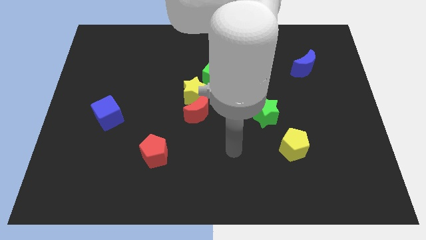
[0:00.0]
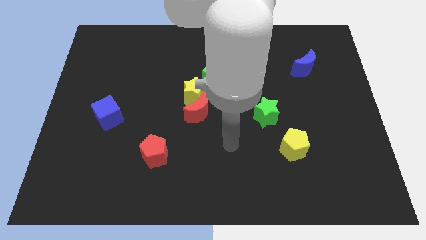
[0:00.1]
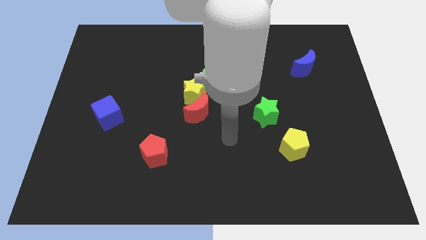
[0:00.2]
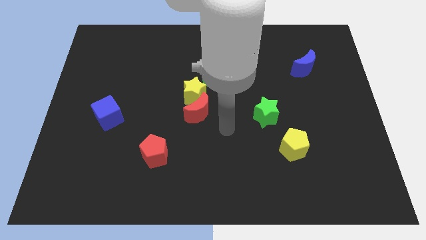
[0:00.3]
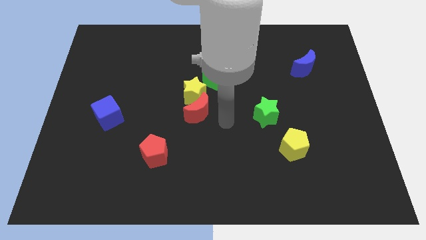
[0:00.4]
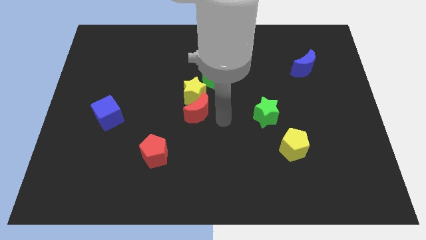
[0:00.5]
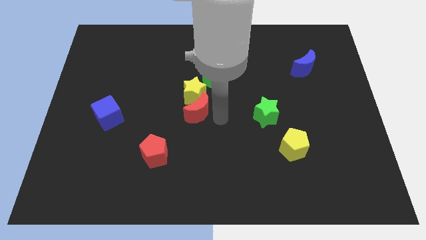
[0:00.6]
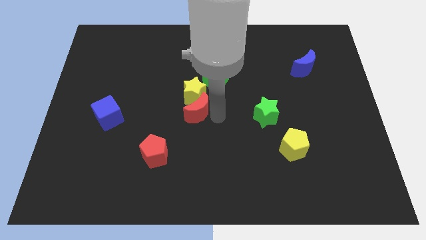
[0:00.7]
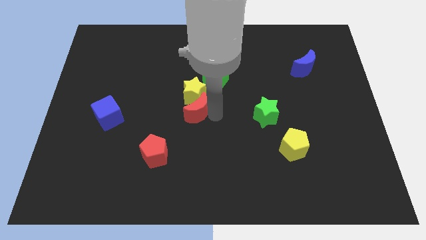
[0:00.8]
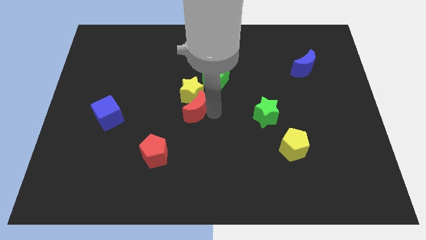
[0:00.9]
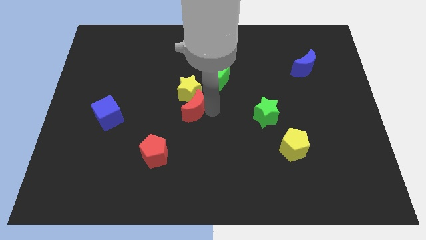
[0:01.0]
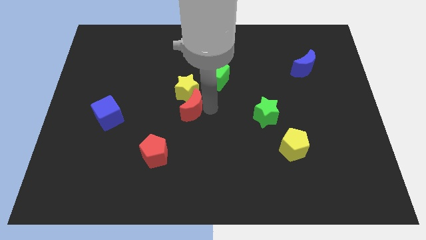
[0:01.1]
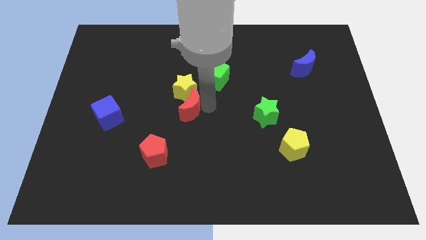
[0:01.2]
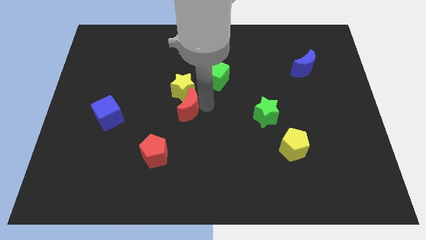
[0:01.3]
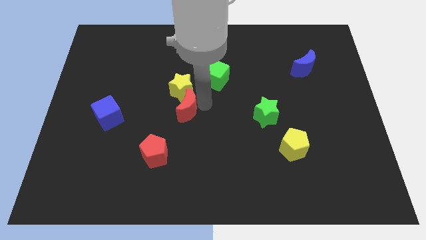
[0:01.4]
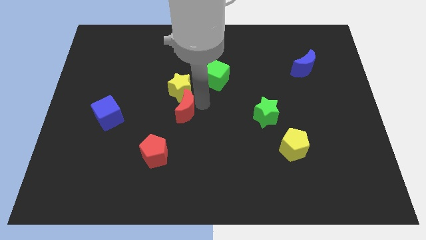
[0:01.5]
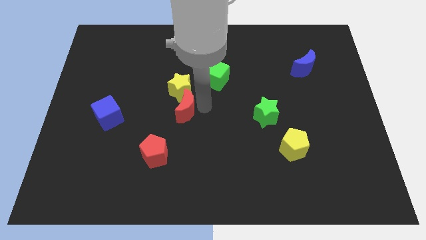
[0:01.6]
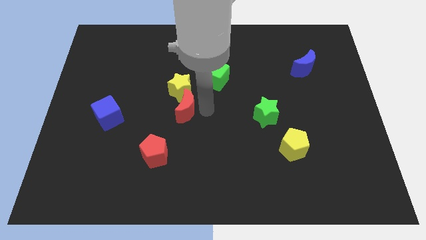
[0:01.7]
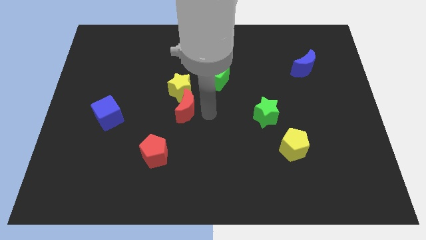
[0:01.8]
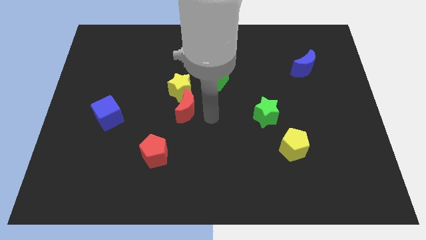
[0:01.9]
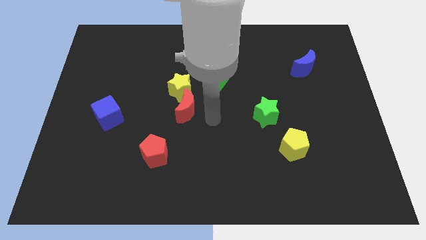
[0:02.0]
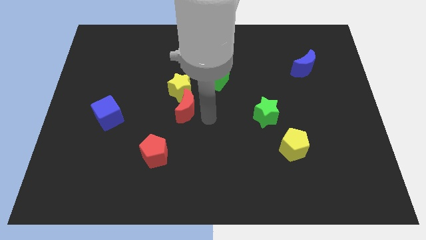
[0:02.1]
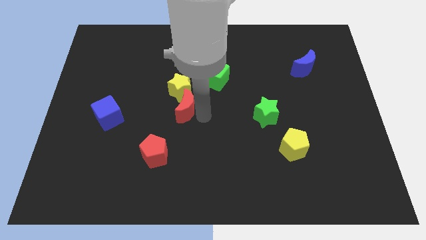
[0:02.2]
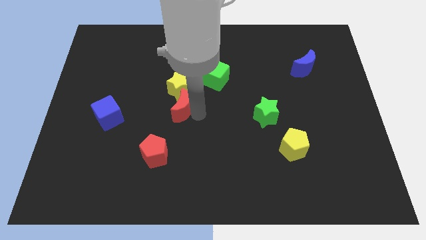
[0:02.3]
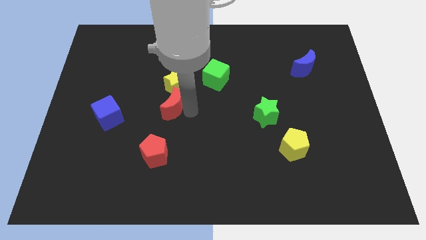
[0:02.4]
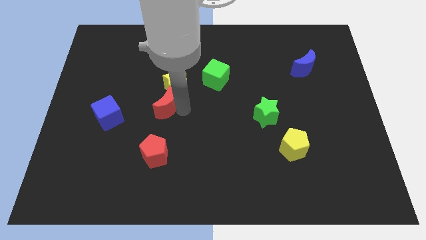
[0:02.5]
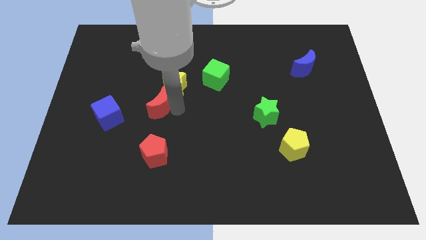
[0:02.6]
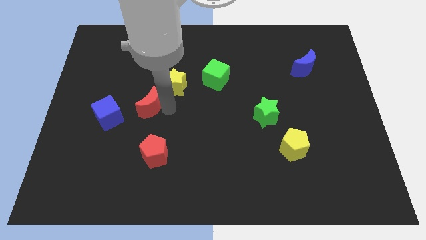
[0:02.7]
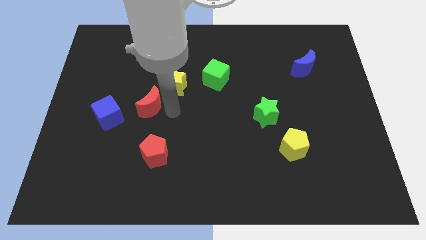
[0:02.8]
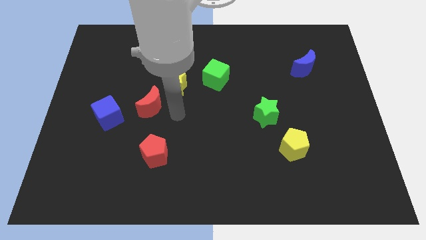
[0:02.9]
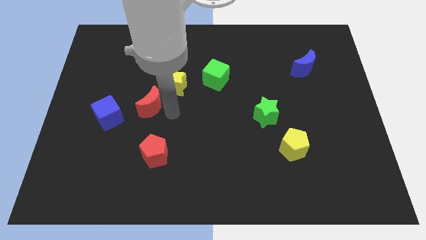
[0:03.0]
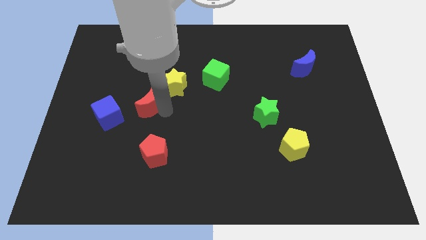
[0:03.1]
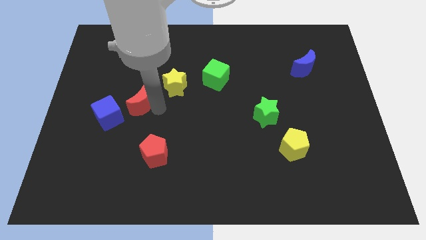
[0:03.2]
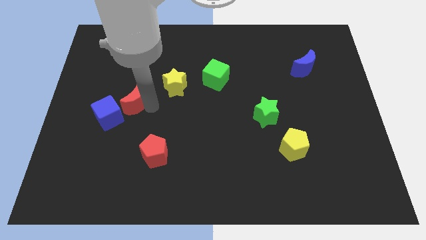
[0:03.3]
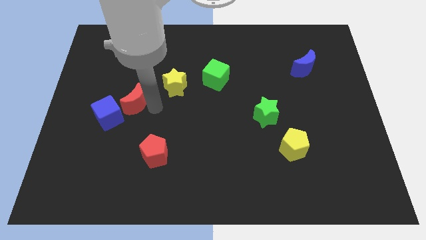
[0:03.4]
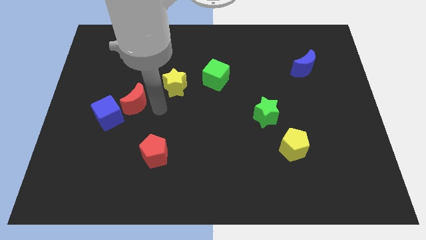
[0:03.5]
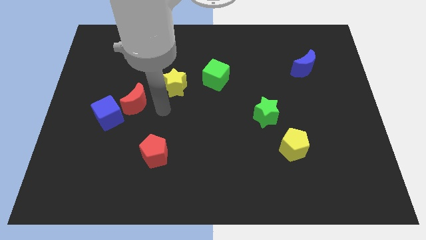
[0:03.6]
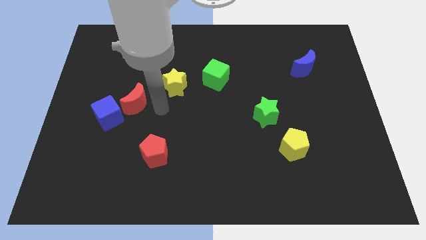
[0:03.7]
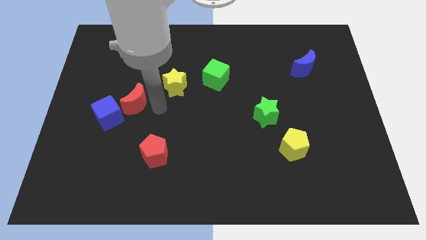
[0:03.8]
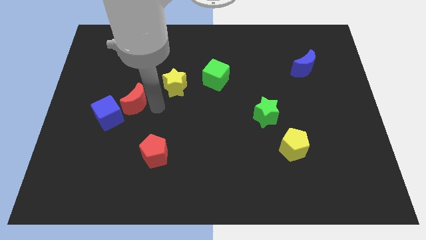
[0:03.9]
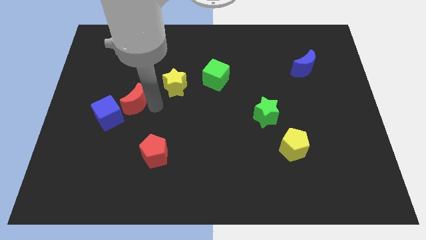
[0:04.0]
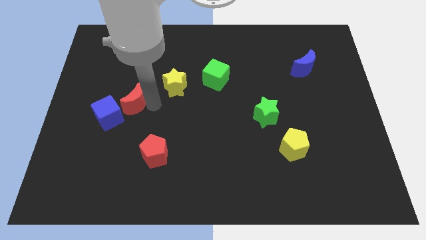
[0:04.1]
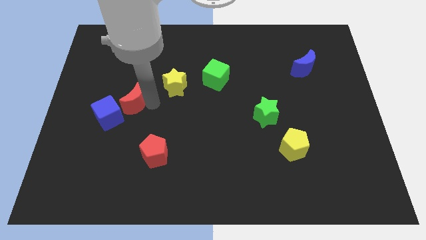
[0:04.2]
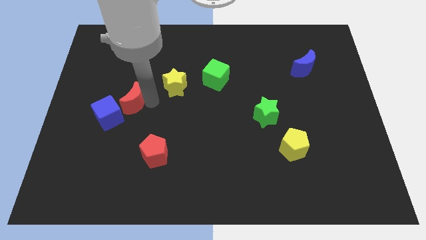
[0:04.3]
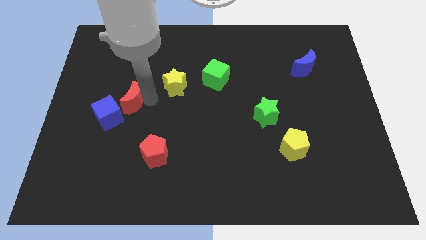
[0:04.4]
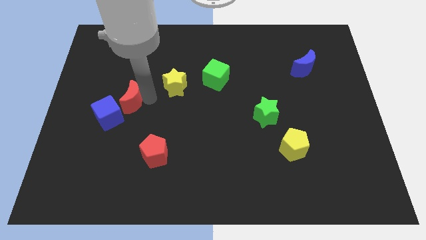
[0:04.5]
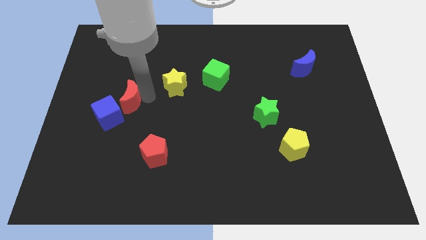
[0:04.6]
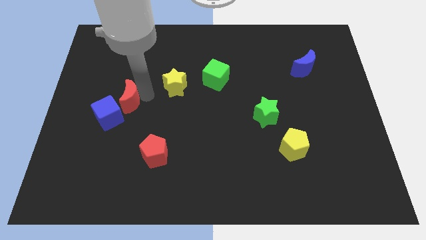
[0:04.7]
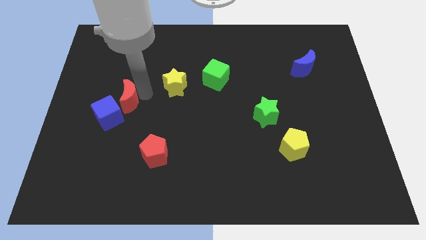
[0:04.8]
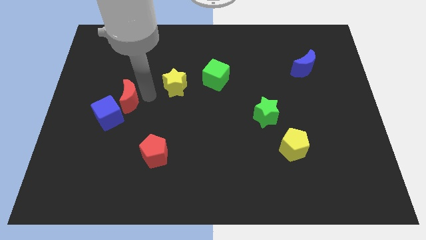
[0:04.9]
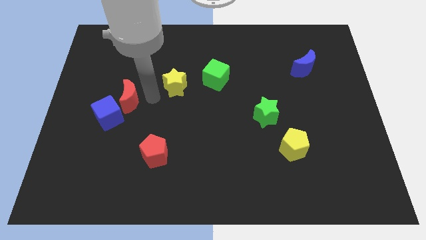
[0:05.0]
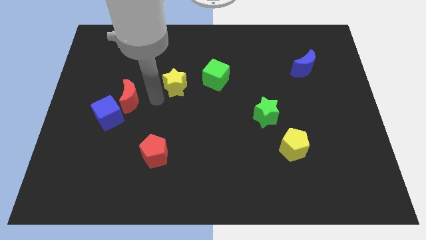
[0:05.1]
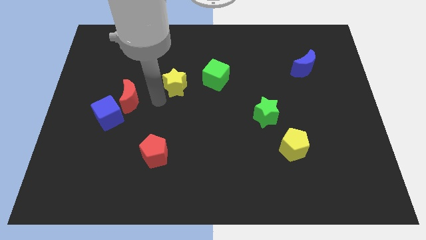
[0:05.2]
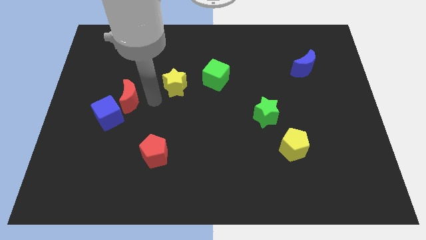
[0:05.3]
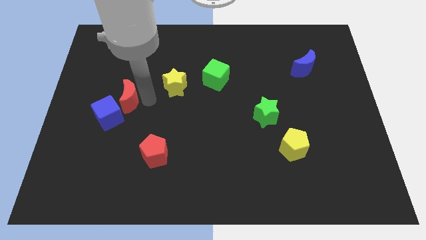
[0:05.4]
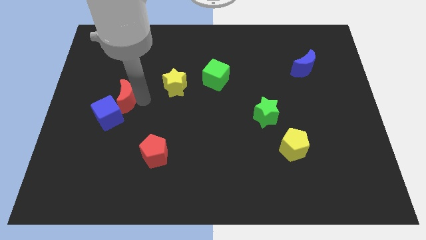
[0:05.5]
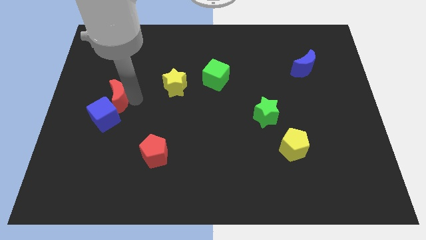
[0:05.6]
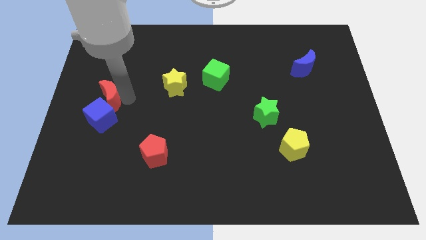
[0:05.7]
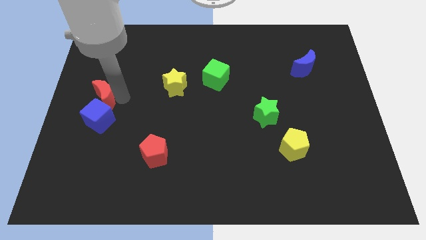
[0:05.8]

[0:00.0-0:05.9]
slide the red moon to the left side

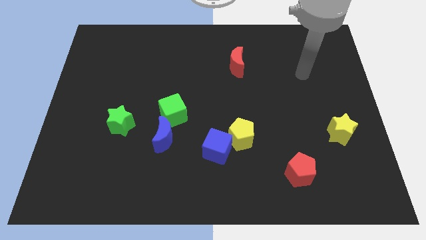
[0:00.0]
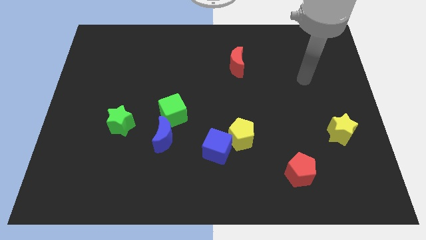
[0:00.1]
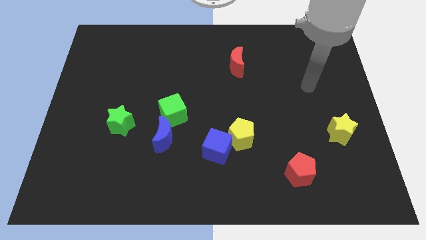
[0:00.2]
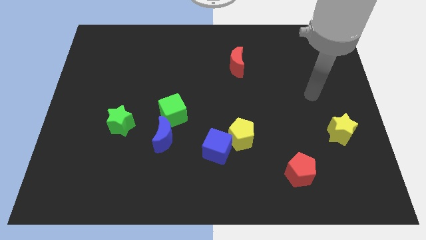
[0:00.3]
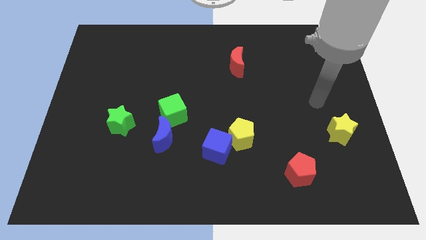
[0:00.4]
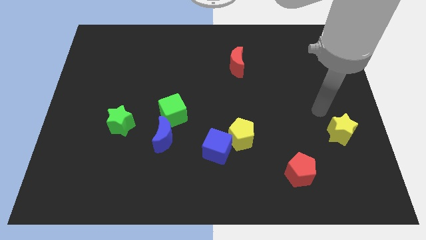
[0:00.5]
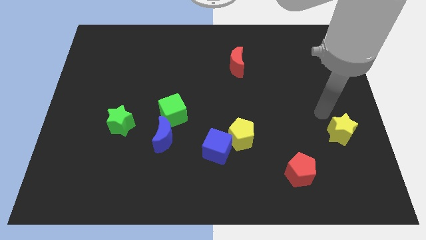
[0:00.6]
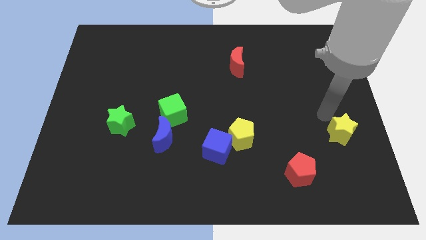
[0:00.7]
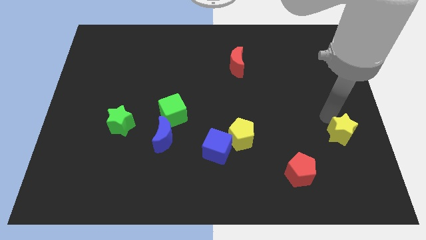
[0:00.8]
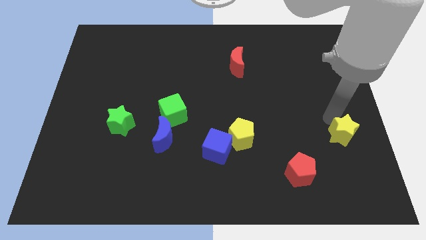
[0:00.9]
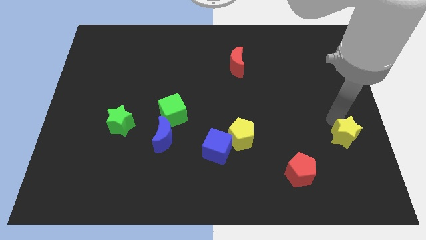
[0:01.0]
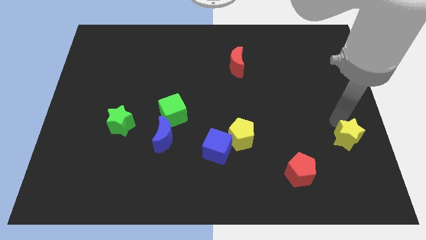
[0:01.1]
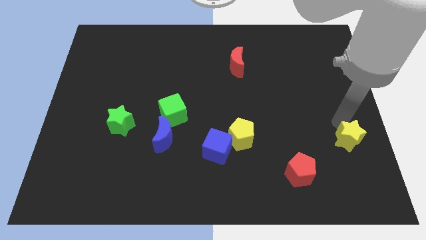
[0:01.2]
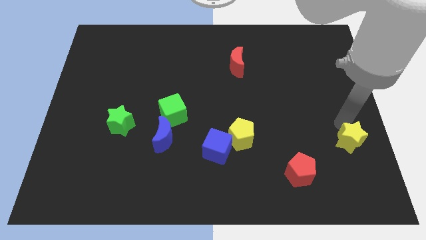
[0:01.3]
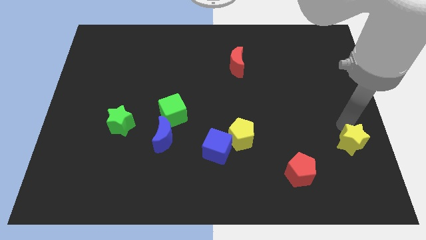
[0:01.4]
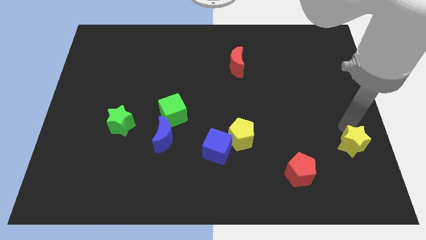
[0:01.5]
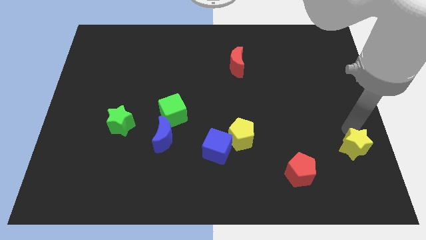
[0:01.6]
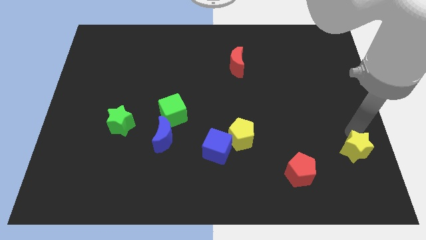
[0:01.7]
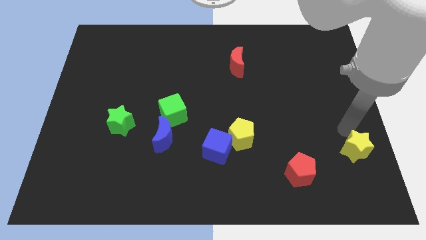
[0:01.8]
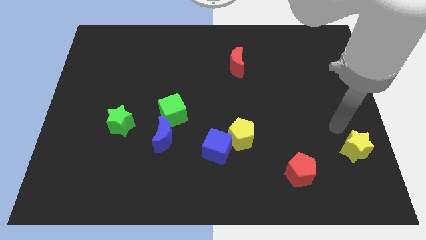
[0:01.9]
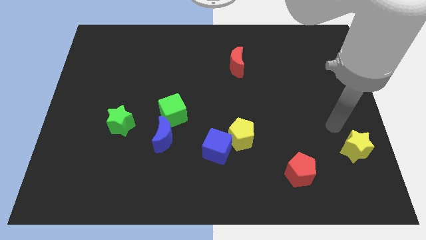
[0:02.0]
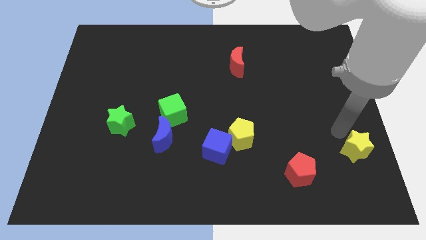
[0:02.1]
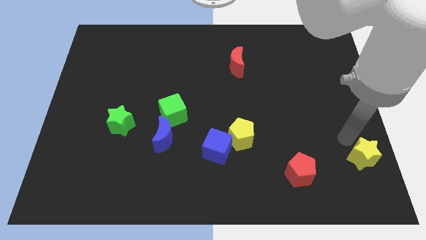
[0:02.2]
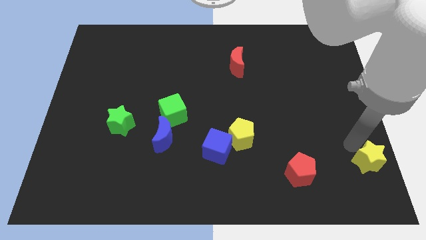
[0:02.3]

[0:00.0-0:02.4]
push the yellow star to the lower right corner
